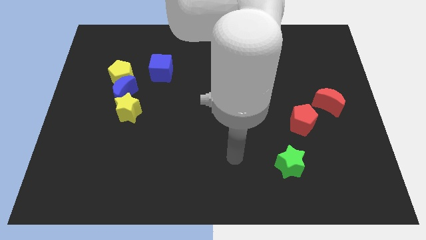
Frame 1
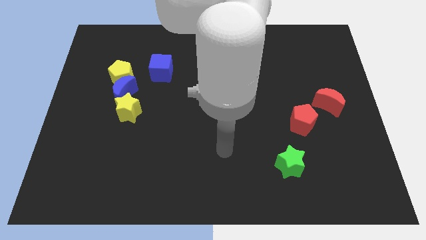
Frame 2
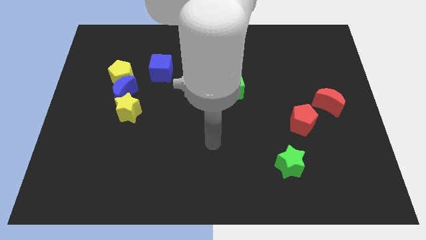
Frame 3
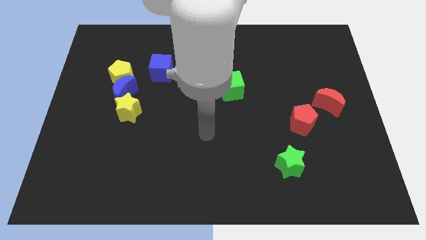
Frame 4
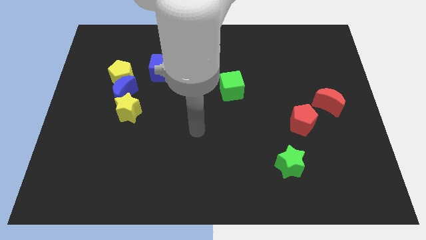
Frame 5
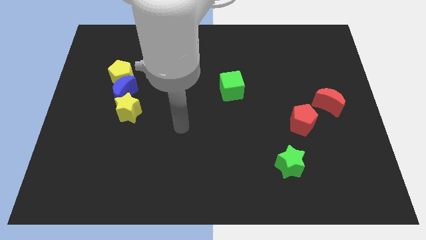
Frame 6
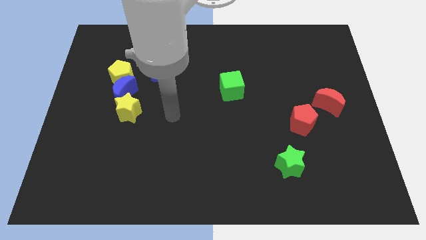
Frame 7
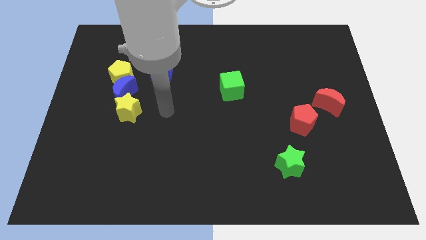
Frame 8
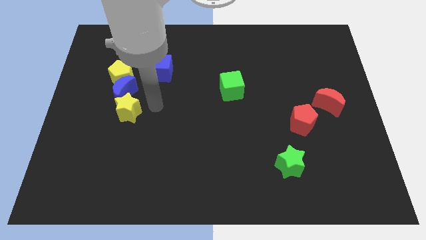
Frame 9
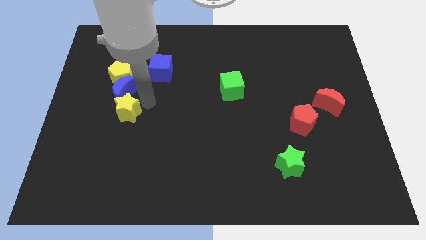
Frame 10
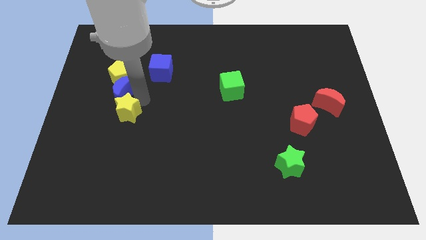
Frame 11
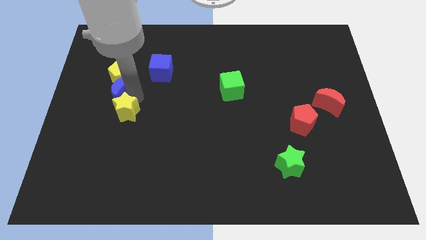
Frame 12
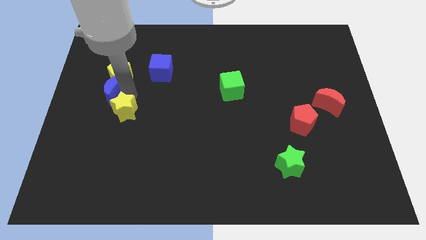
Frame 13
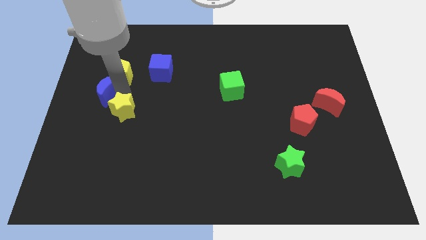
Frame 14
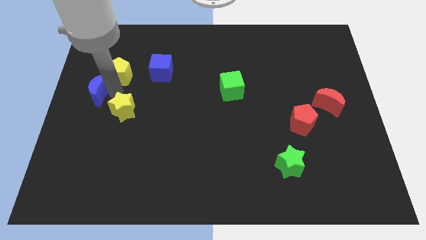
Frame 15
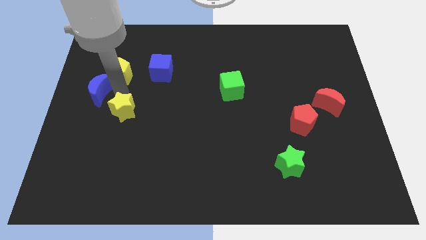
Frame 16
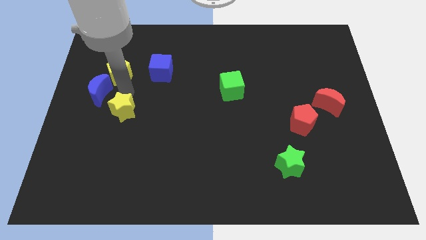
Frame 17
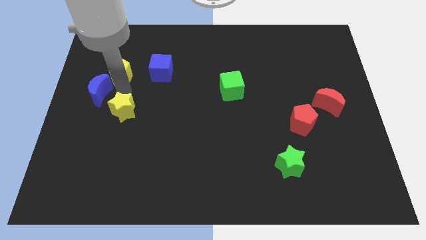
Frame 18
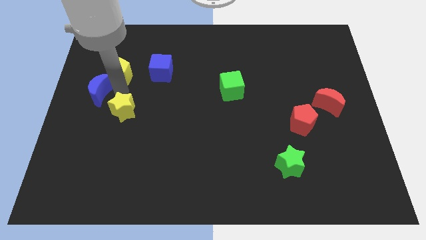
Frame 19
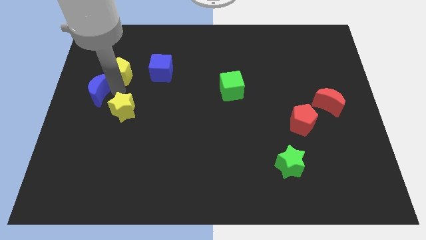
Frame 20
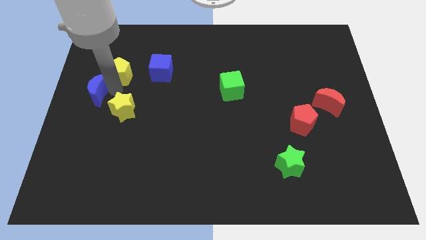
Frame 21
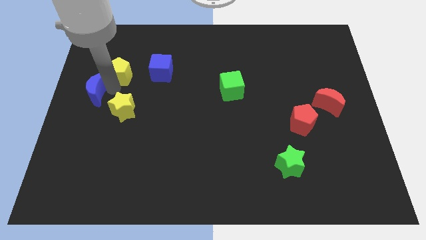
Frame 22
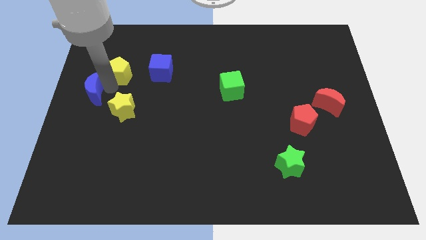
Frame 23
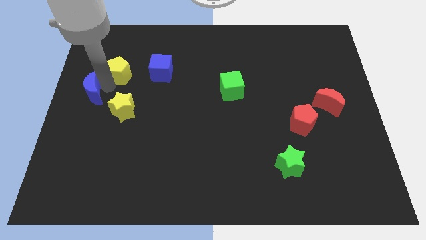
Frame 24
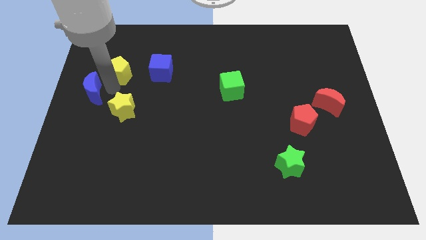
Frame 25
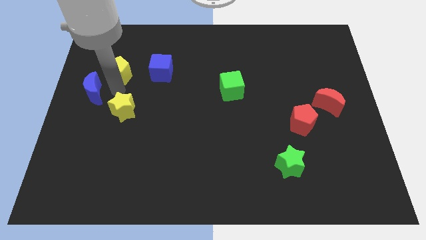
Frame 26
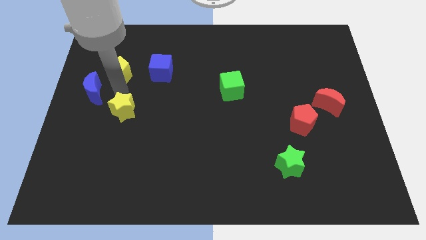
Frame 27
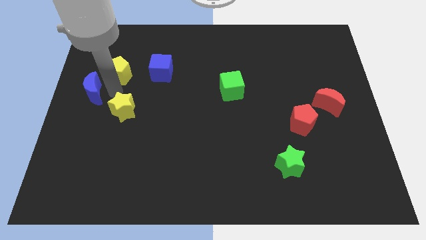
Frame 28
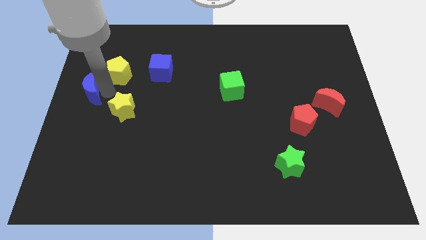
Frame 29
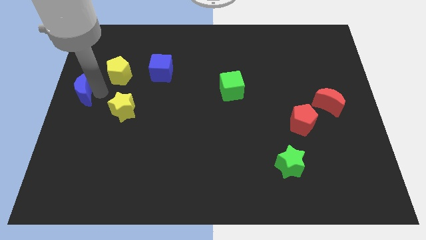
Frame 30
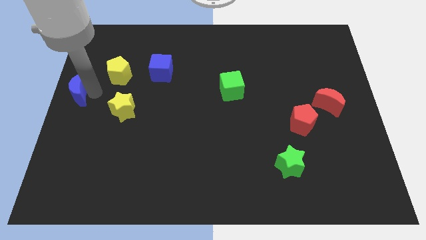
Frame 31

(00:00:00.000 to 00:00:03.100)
move the blue moon away from the yellow pentagon and yellow star

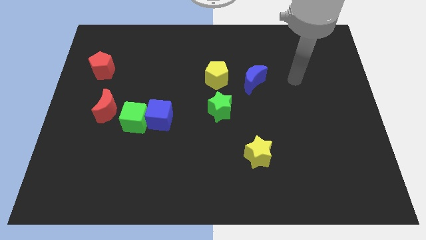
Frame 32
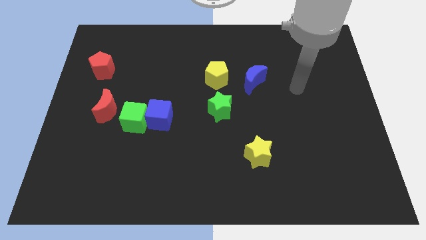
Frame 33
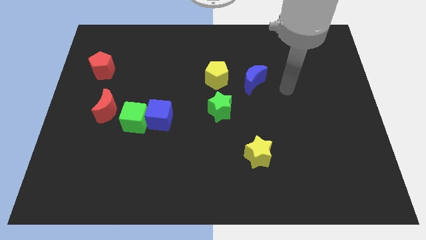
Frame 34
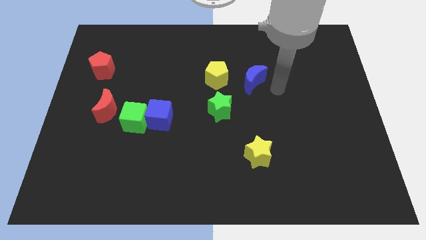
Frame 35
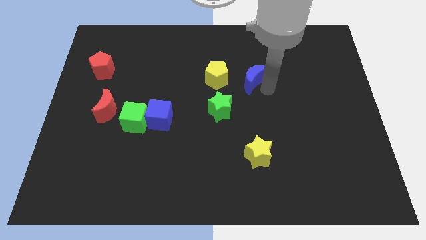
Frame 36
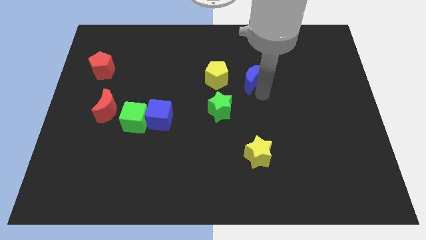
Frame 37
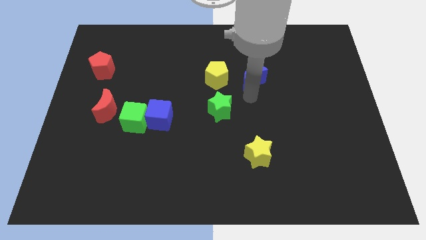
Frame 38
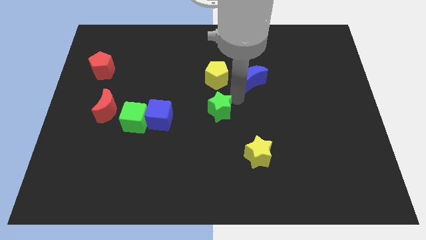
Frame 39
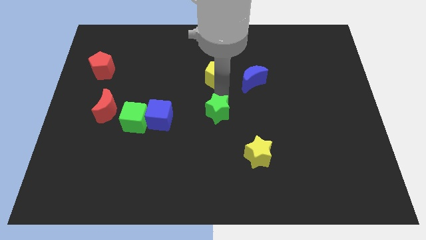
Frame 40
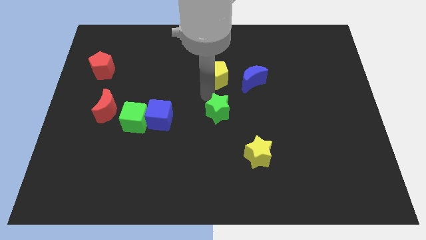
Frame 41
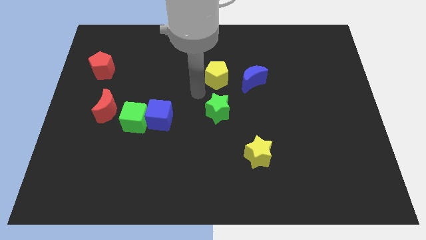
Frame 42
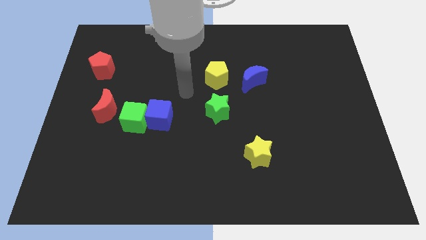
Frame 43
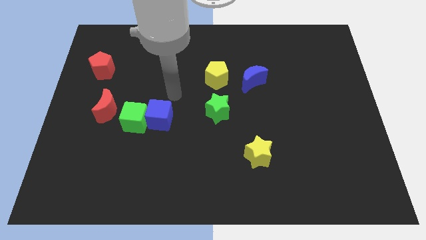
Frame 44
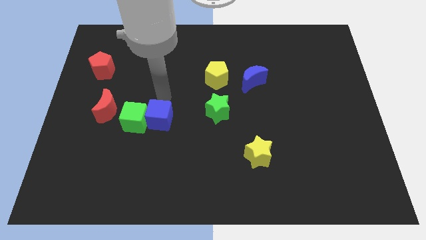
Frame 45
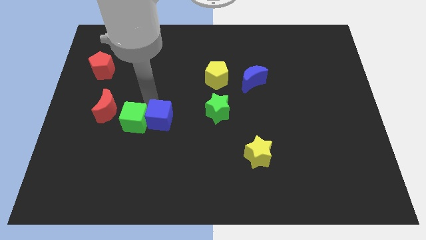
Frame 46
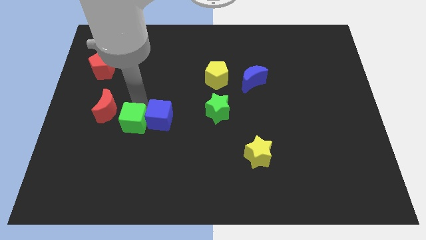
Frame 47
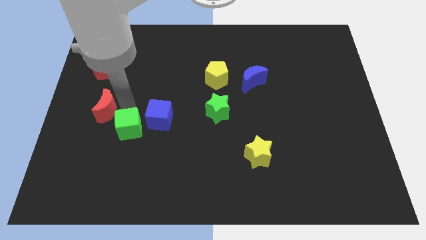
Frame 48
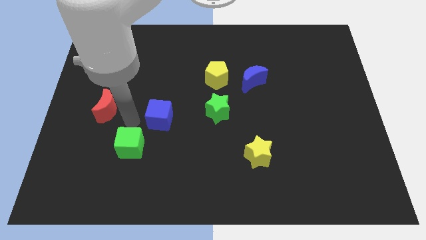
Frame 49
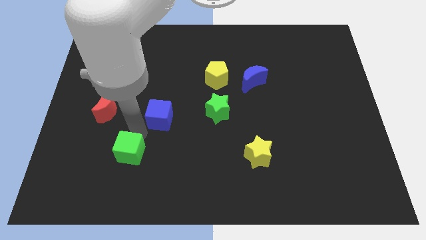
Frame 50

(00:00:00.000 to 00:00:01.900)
pull the blue cube apart from the green cube

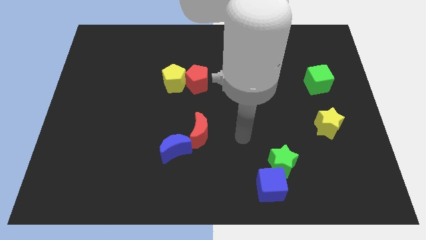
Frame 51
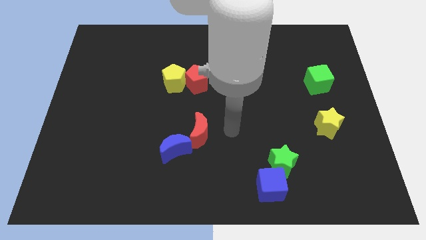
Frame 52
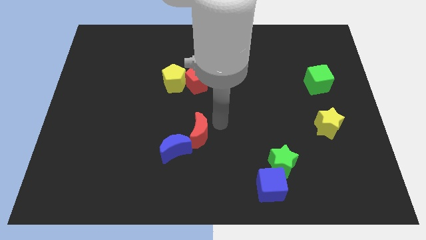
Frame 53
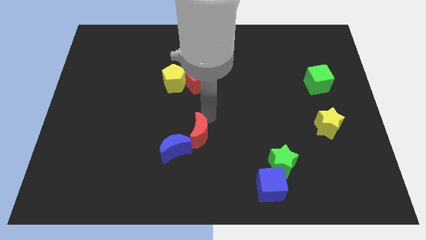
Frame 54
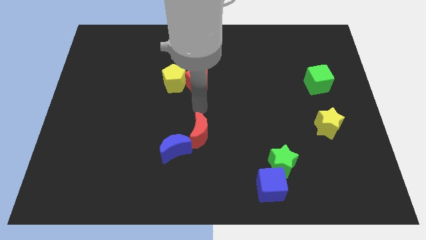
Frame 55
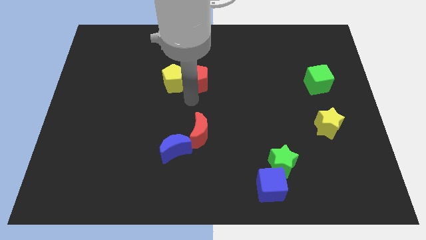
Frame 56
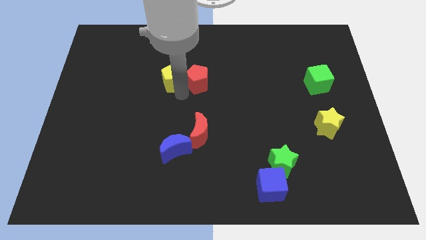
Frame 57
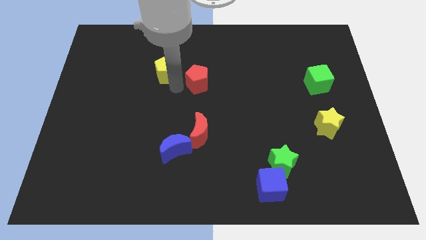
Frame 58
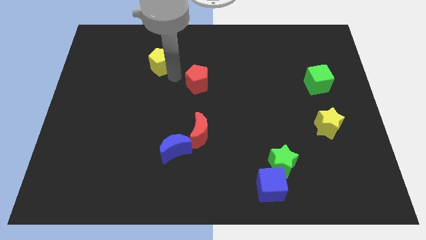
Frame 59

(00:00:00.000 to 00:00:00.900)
pull the red pentagon apart from the yellow pentagon

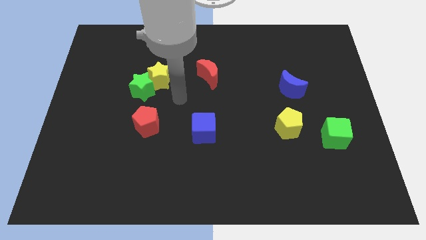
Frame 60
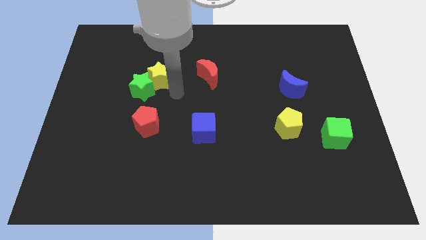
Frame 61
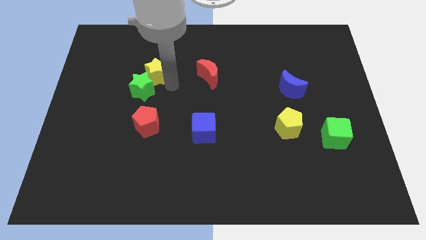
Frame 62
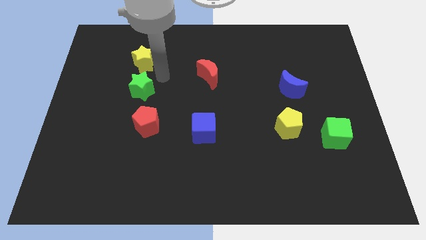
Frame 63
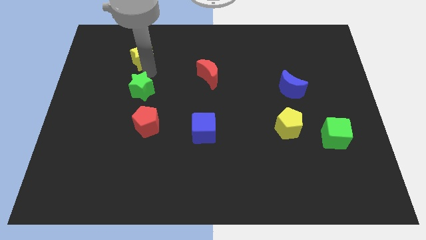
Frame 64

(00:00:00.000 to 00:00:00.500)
pull the green star apart from the yellow star

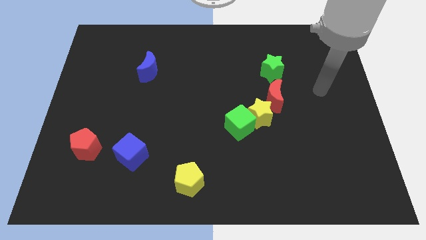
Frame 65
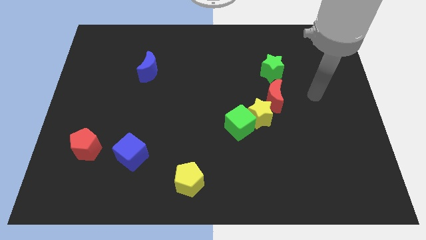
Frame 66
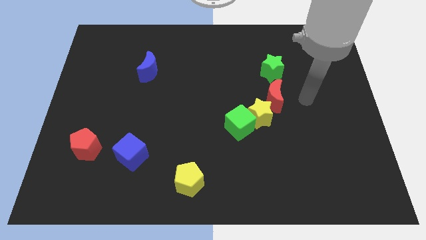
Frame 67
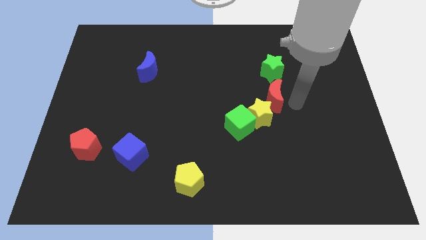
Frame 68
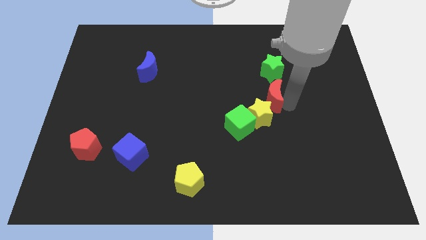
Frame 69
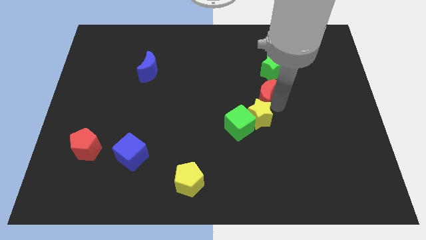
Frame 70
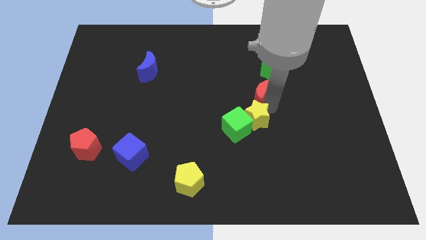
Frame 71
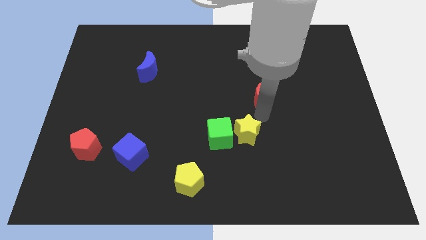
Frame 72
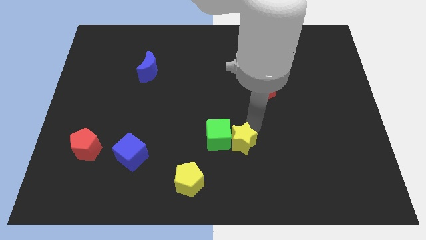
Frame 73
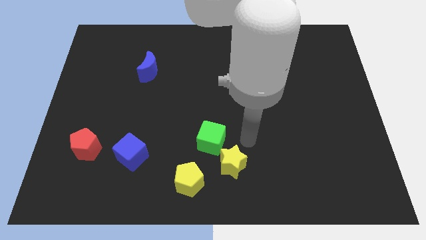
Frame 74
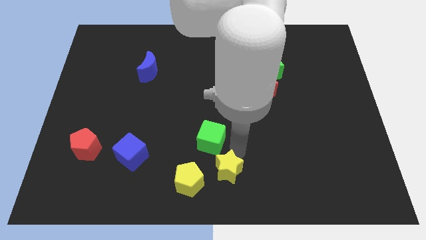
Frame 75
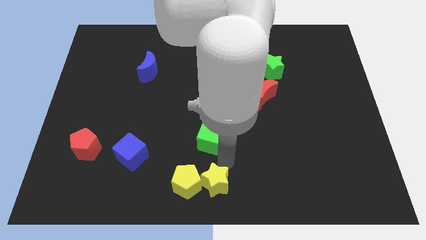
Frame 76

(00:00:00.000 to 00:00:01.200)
pull the green cube apart from the yellow star

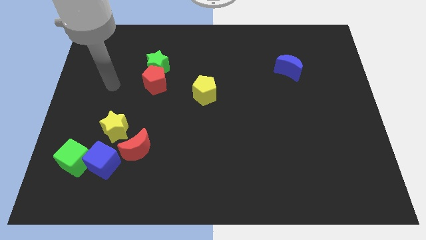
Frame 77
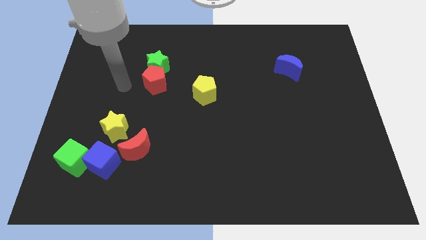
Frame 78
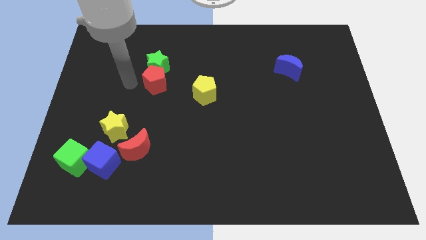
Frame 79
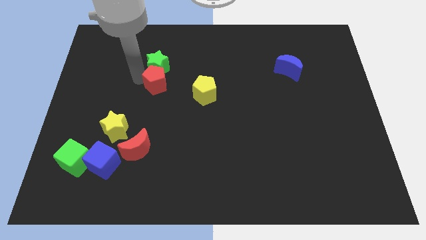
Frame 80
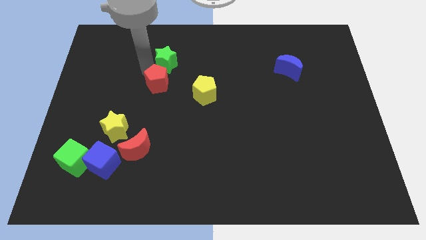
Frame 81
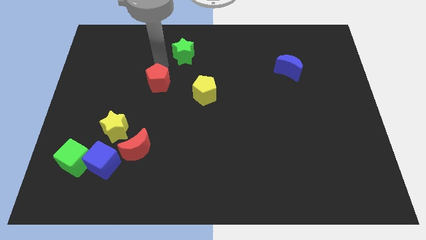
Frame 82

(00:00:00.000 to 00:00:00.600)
pull the red pentagon apart from the green star

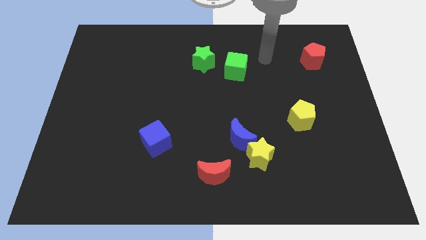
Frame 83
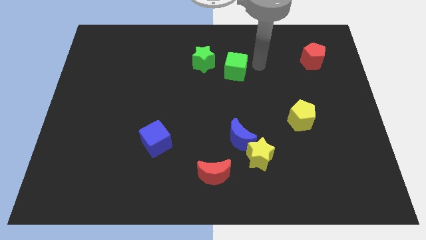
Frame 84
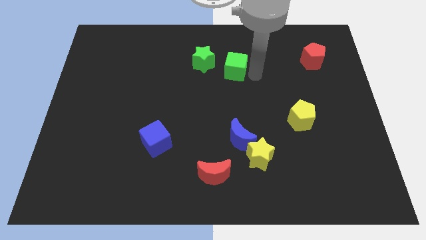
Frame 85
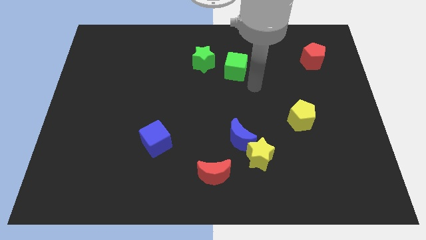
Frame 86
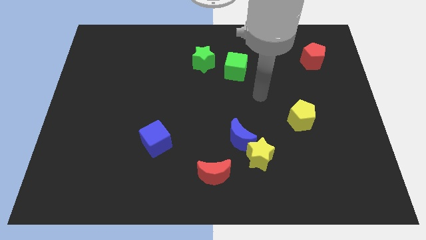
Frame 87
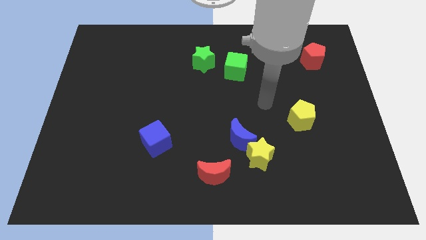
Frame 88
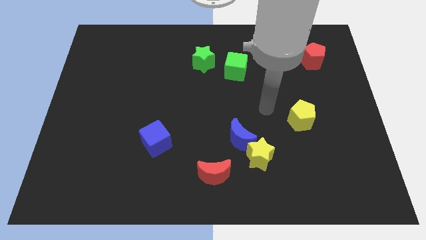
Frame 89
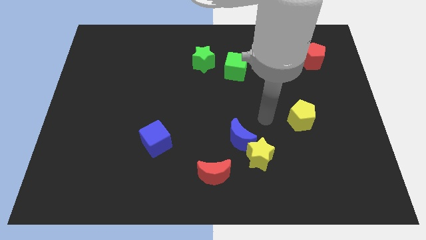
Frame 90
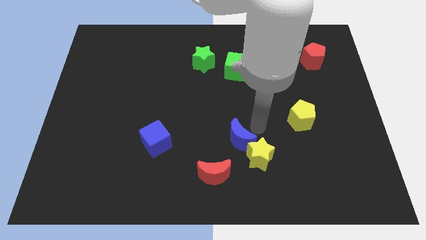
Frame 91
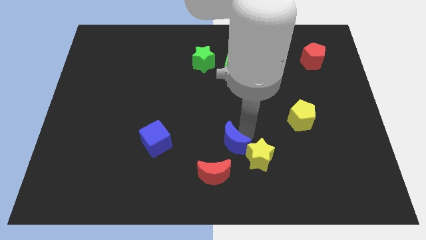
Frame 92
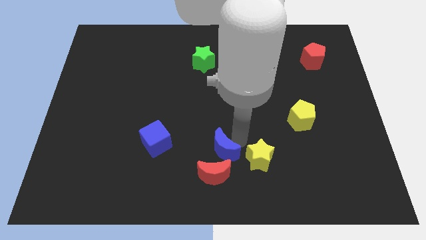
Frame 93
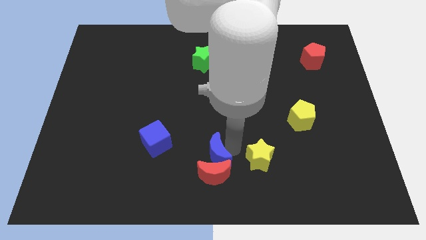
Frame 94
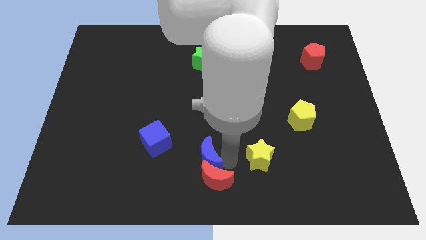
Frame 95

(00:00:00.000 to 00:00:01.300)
separate the yellow star from the blue moon and red moon
